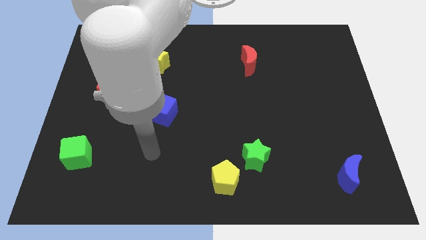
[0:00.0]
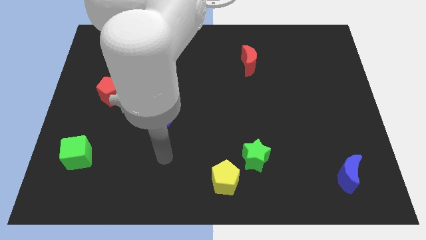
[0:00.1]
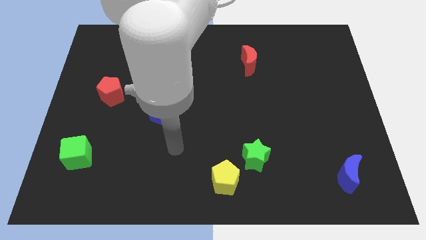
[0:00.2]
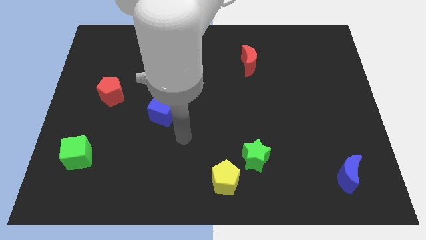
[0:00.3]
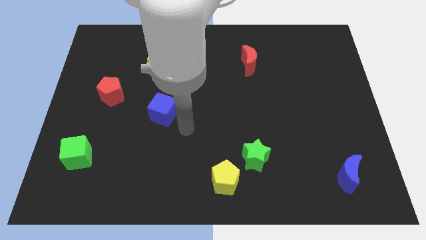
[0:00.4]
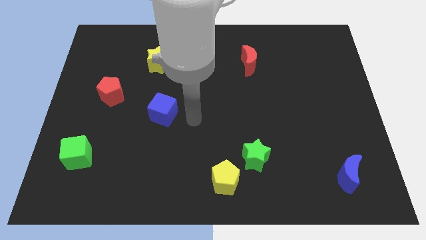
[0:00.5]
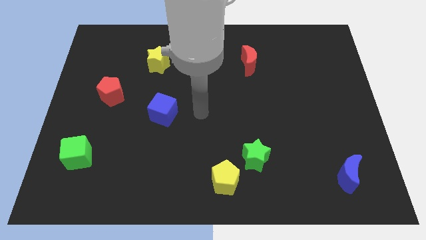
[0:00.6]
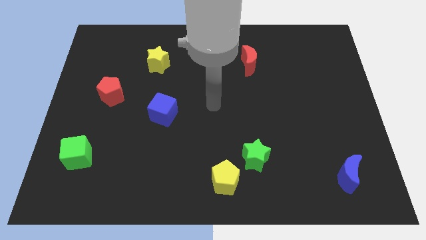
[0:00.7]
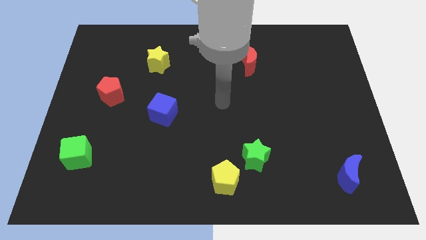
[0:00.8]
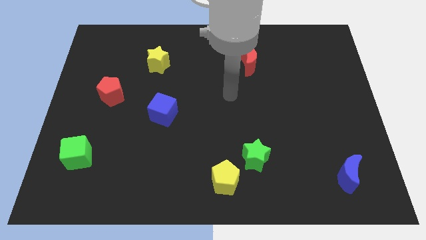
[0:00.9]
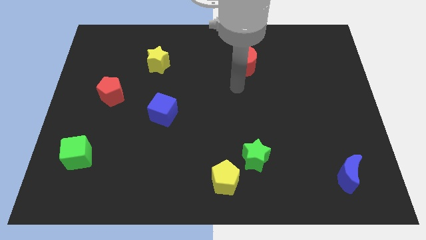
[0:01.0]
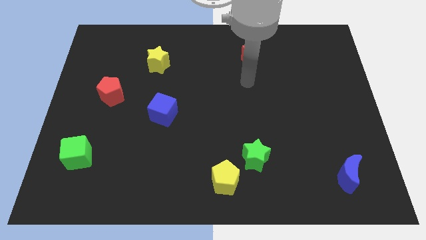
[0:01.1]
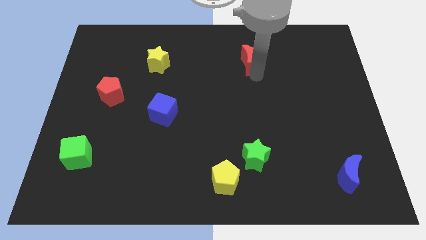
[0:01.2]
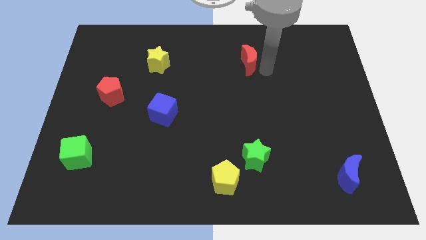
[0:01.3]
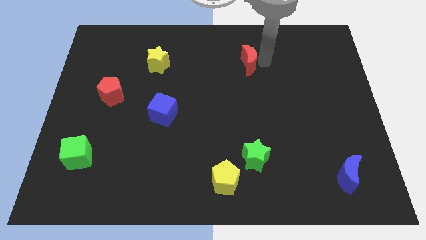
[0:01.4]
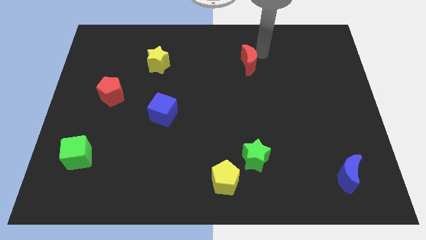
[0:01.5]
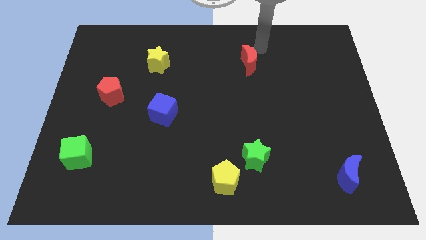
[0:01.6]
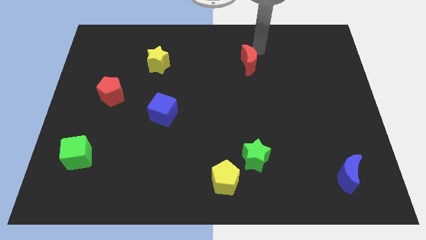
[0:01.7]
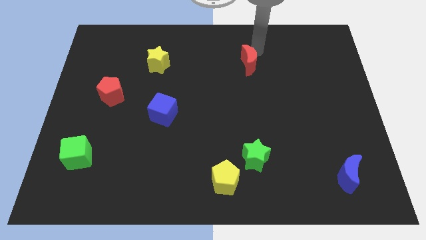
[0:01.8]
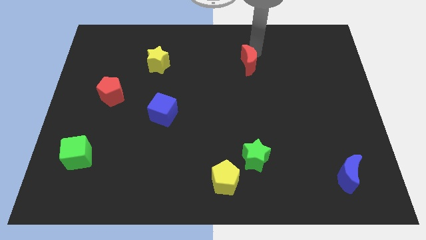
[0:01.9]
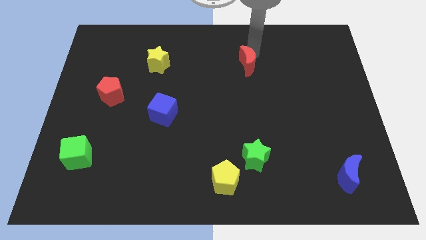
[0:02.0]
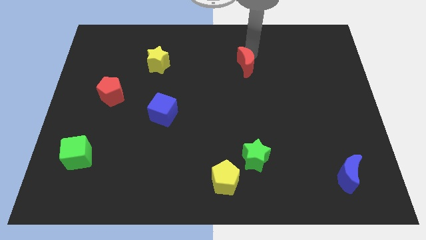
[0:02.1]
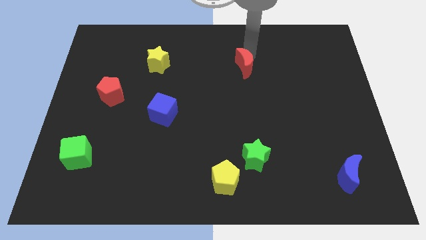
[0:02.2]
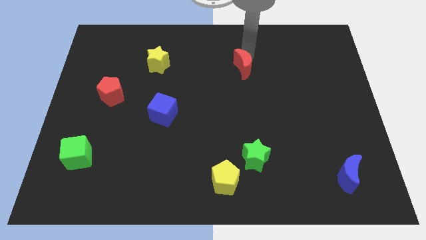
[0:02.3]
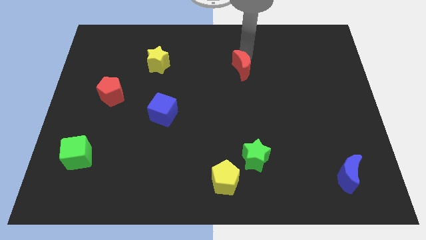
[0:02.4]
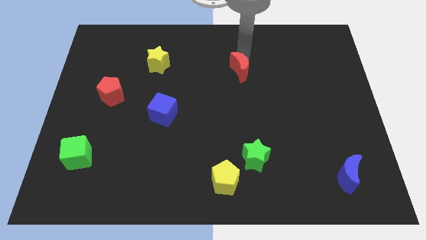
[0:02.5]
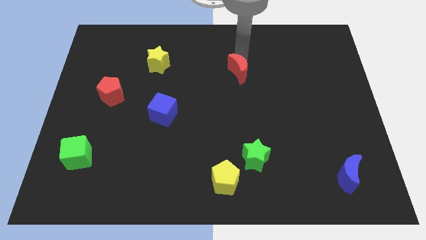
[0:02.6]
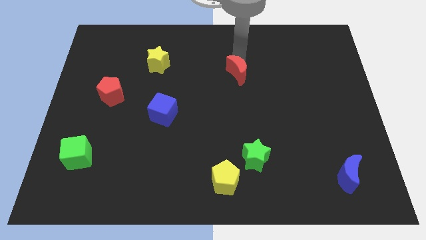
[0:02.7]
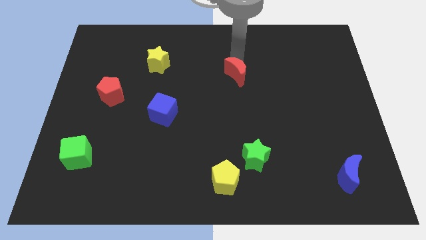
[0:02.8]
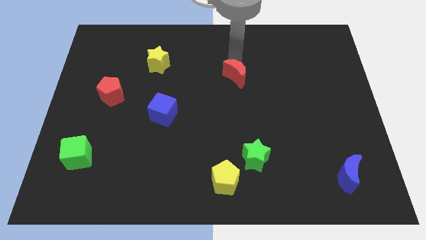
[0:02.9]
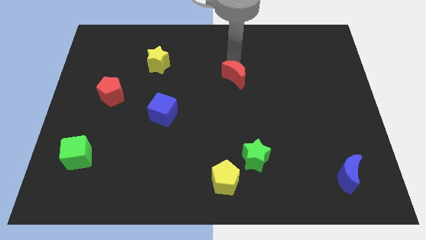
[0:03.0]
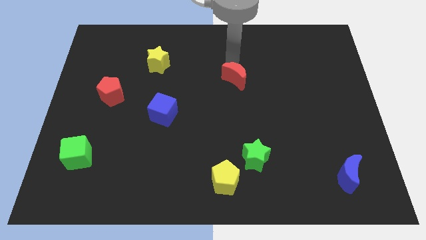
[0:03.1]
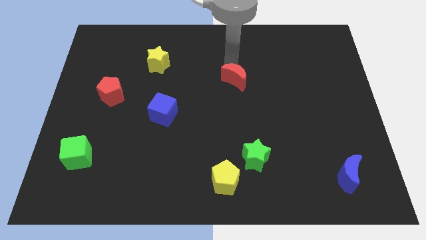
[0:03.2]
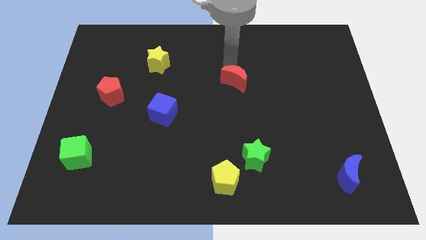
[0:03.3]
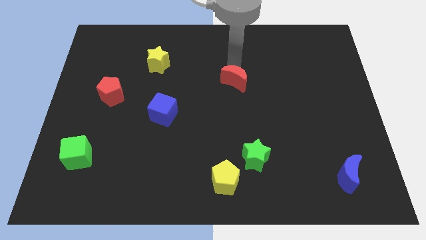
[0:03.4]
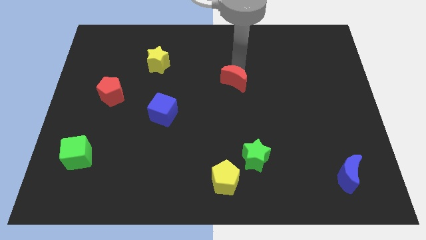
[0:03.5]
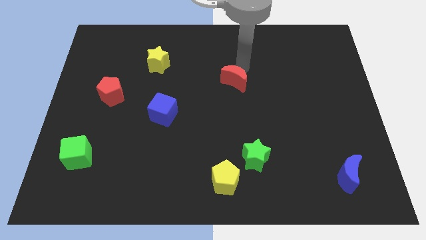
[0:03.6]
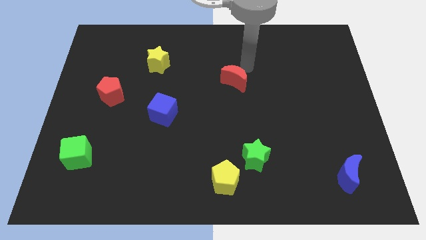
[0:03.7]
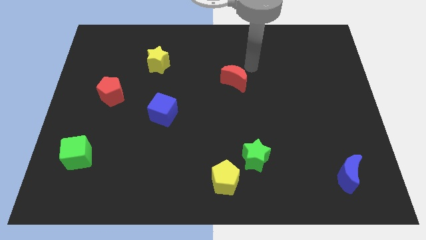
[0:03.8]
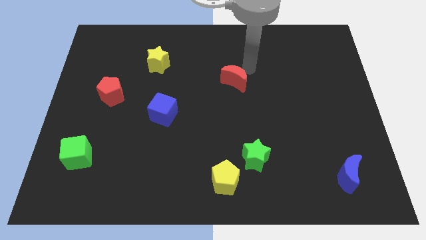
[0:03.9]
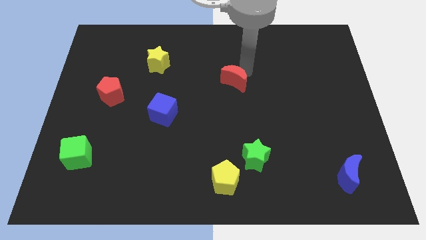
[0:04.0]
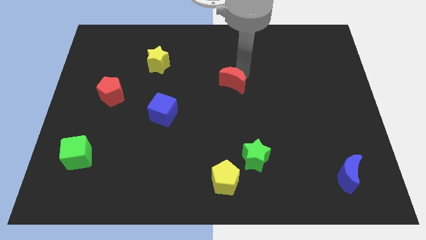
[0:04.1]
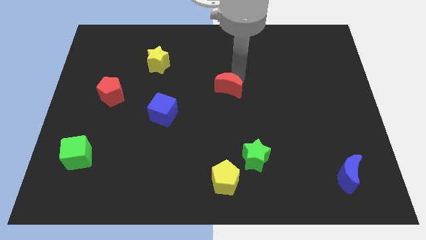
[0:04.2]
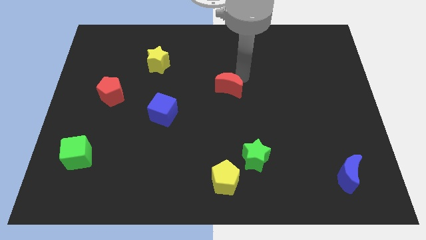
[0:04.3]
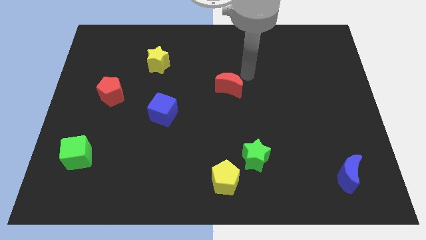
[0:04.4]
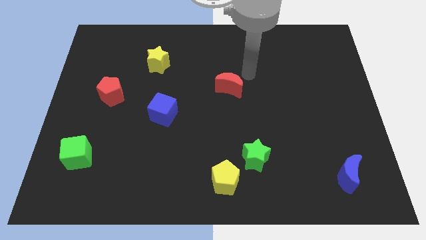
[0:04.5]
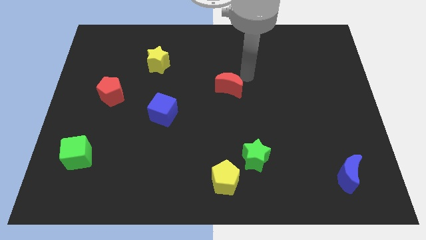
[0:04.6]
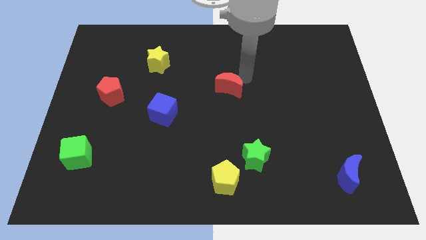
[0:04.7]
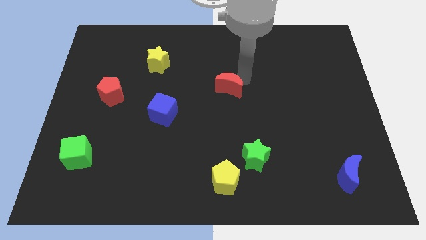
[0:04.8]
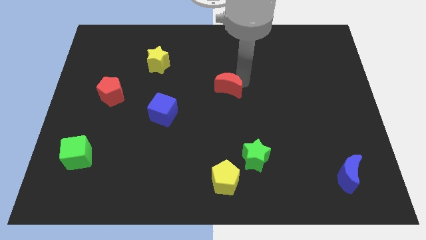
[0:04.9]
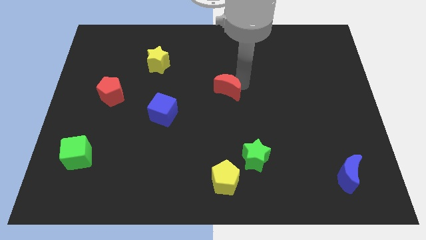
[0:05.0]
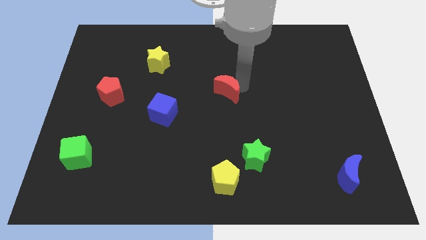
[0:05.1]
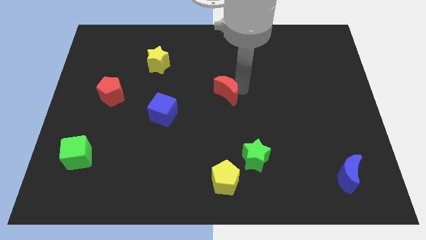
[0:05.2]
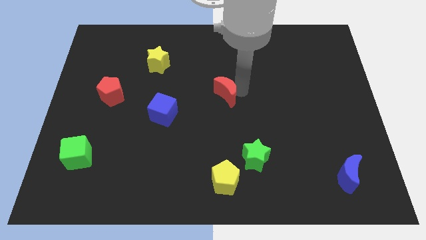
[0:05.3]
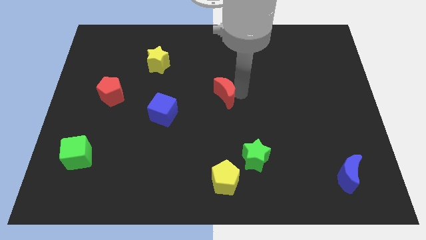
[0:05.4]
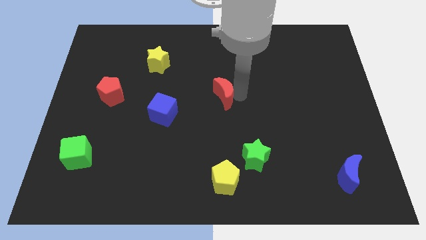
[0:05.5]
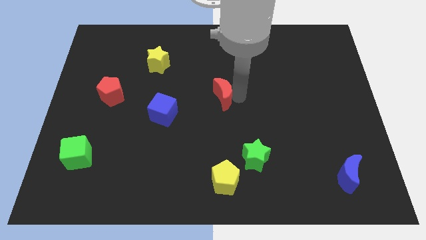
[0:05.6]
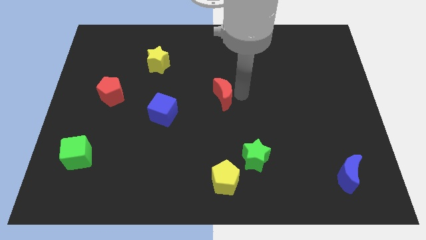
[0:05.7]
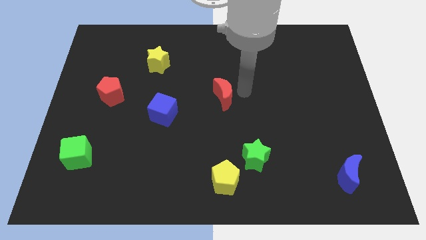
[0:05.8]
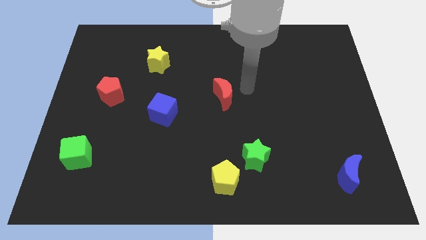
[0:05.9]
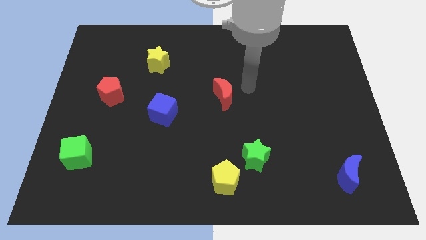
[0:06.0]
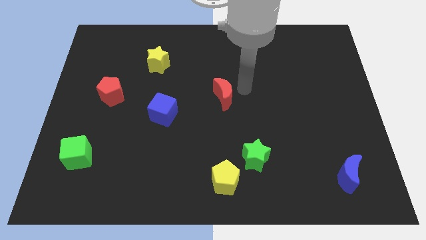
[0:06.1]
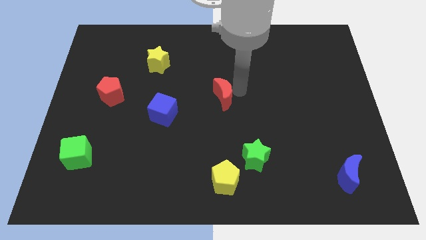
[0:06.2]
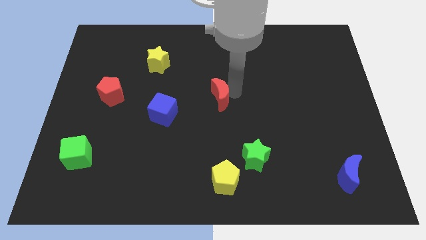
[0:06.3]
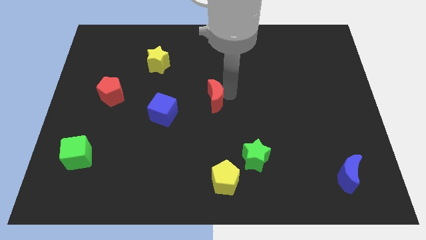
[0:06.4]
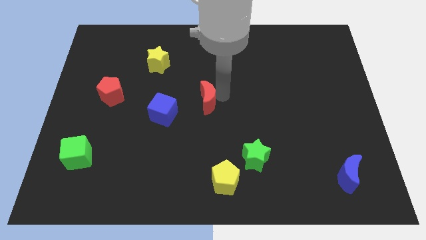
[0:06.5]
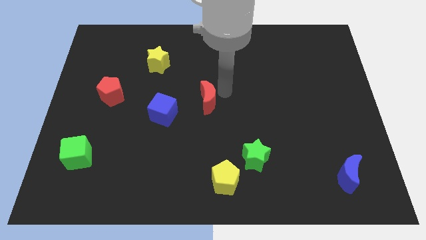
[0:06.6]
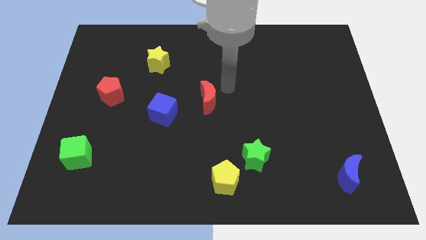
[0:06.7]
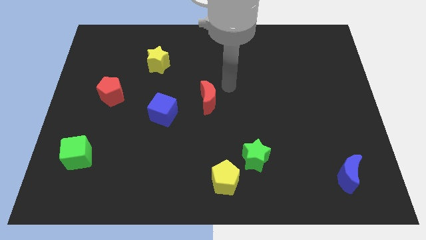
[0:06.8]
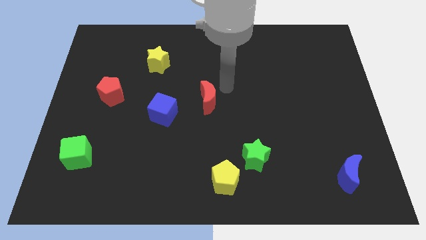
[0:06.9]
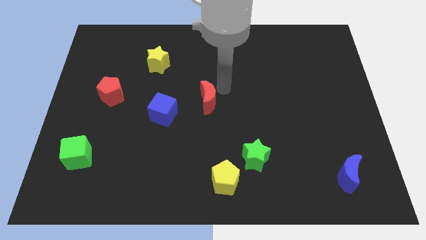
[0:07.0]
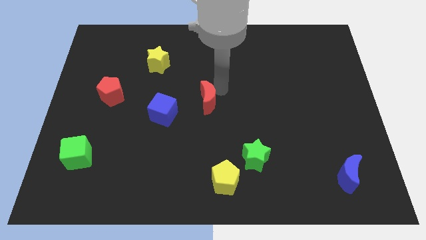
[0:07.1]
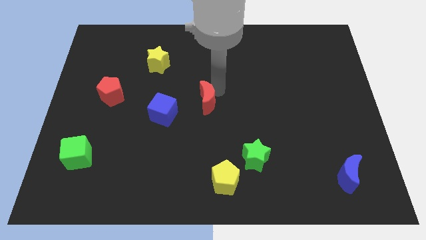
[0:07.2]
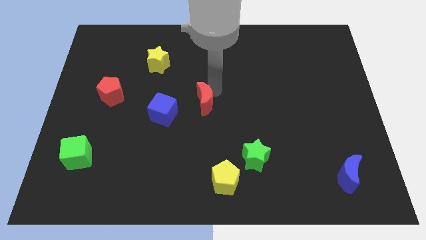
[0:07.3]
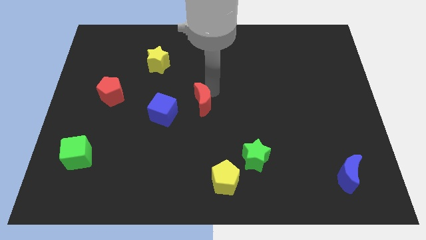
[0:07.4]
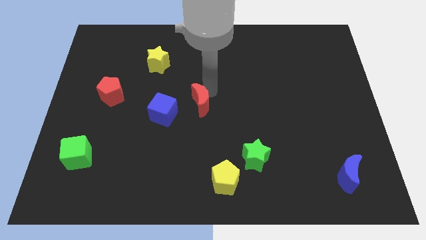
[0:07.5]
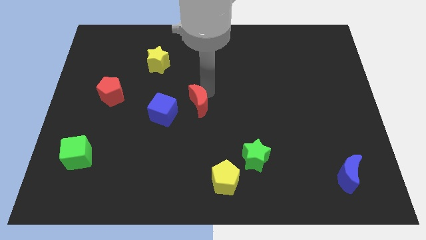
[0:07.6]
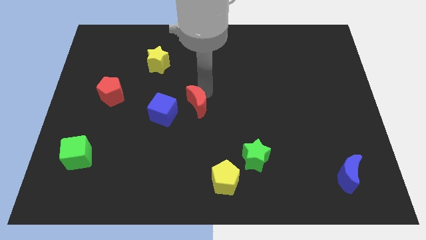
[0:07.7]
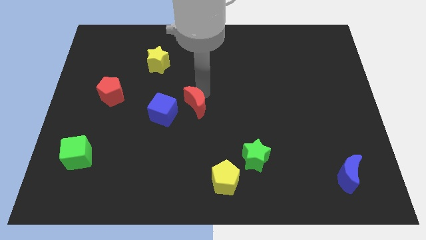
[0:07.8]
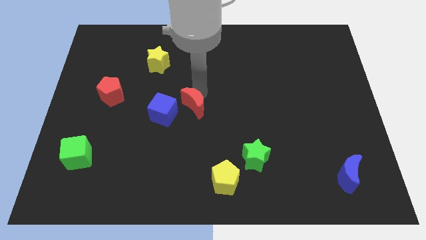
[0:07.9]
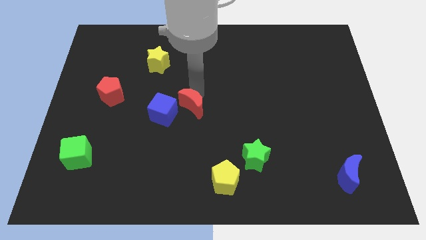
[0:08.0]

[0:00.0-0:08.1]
slide the red moon diagonally downwards and left
